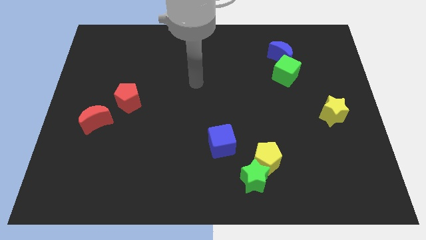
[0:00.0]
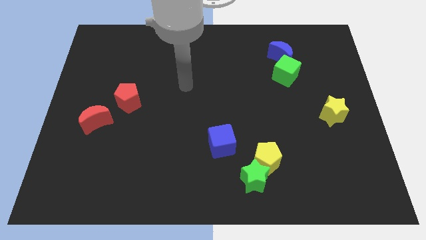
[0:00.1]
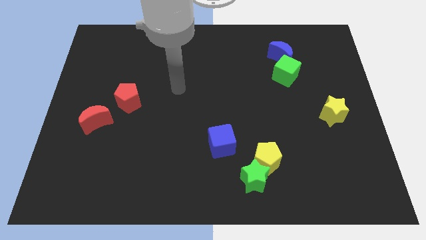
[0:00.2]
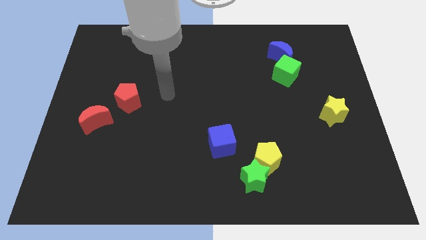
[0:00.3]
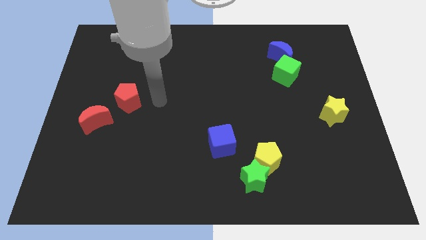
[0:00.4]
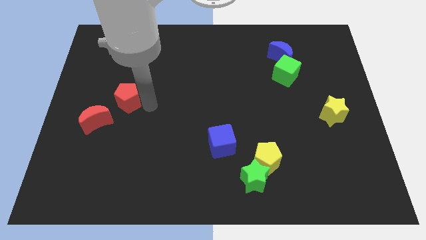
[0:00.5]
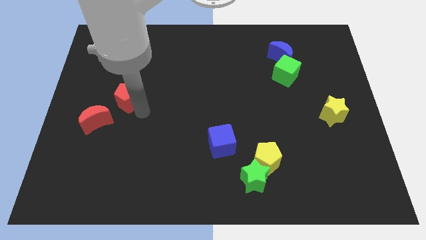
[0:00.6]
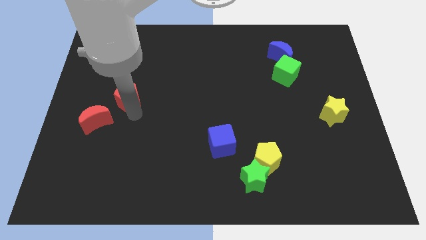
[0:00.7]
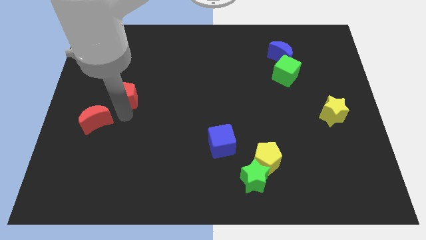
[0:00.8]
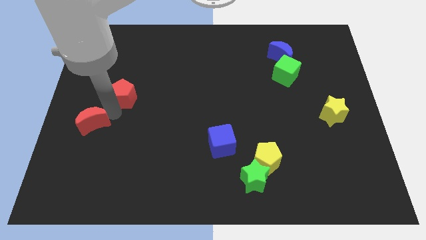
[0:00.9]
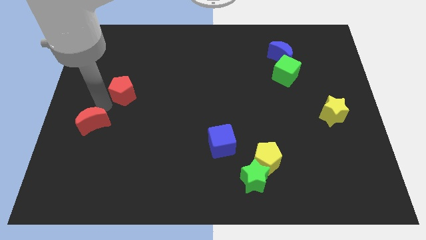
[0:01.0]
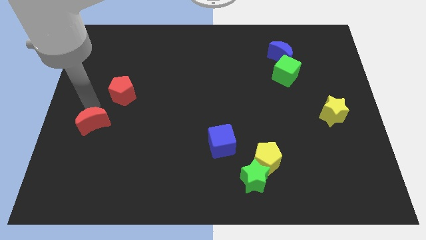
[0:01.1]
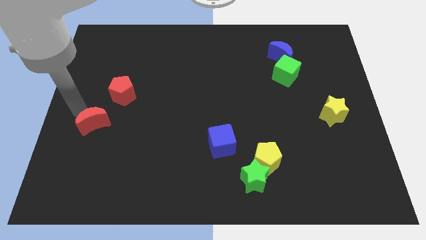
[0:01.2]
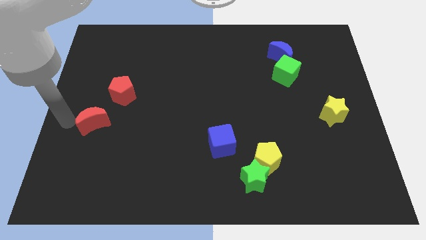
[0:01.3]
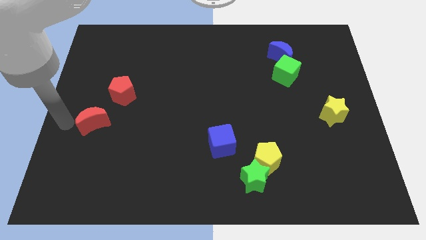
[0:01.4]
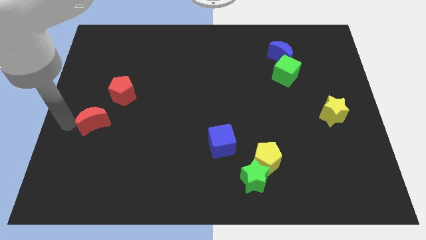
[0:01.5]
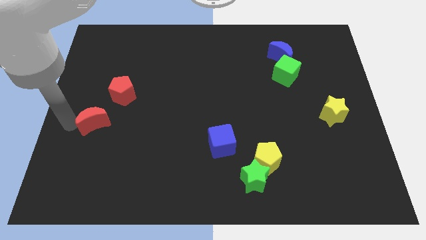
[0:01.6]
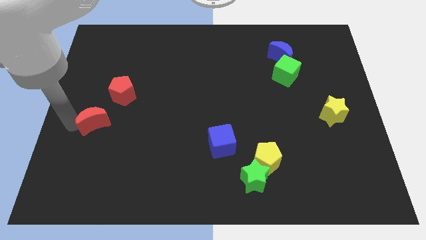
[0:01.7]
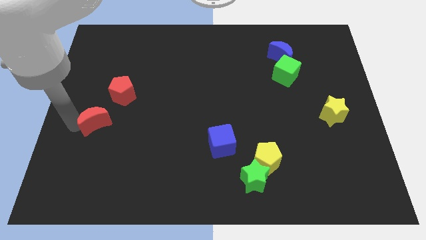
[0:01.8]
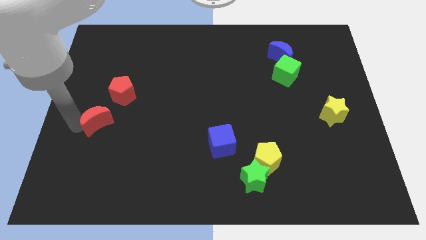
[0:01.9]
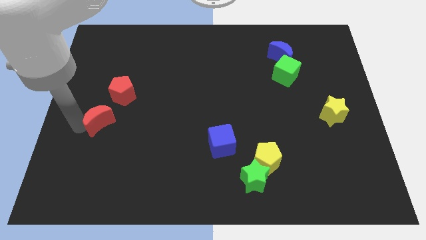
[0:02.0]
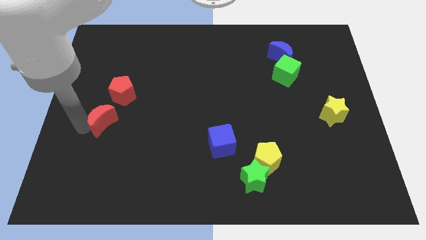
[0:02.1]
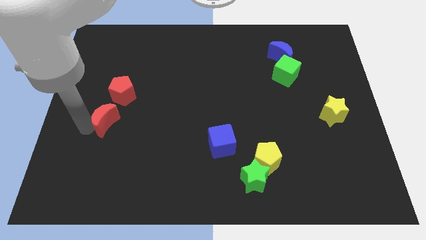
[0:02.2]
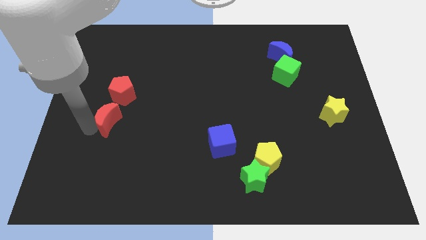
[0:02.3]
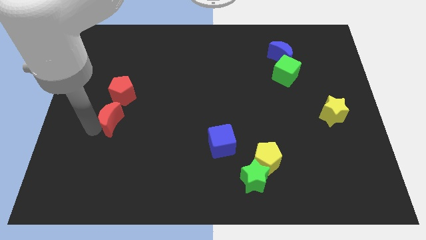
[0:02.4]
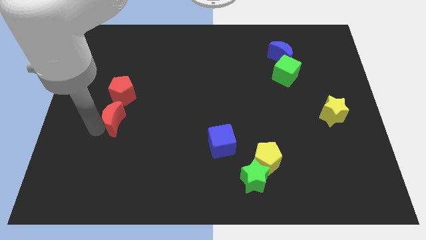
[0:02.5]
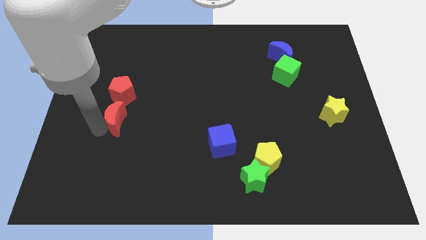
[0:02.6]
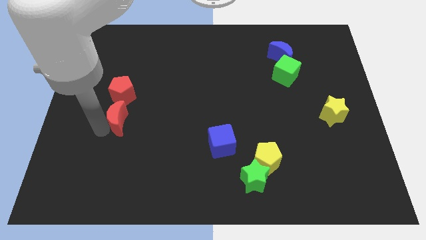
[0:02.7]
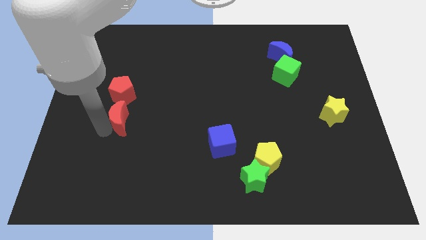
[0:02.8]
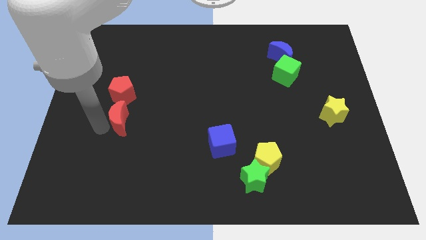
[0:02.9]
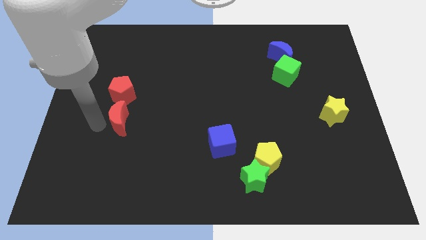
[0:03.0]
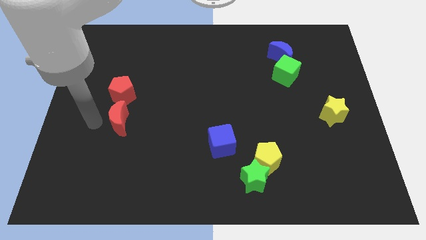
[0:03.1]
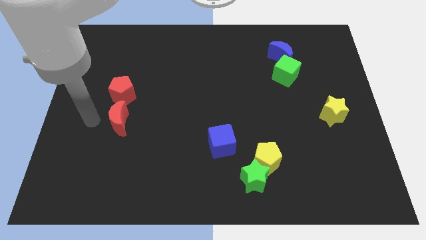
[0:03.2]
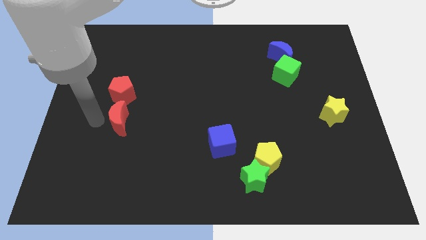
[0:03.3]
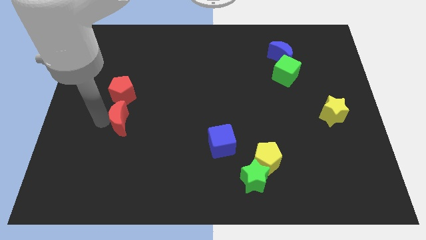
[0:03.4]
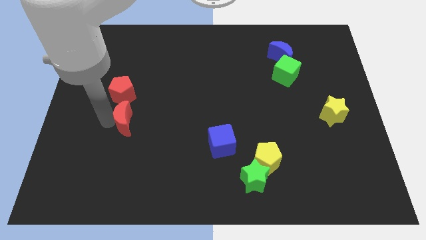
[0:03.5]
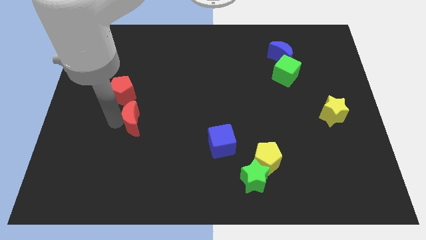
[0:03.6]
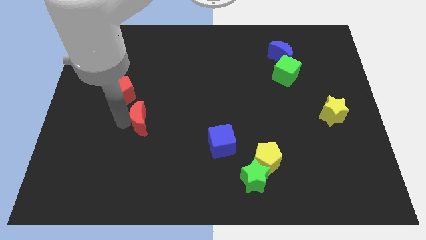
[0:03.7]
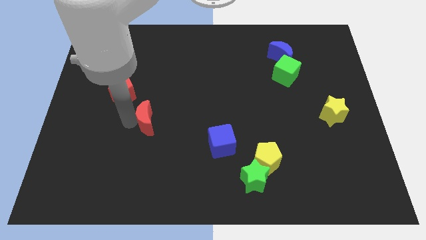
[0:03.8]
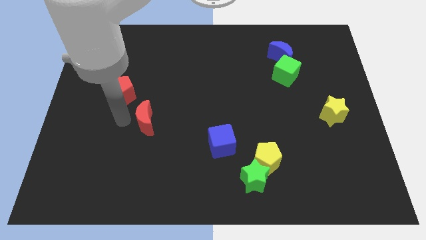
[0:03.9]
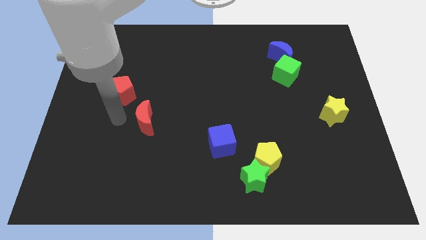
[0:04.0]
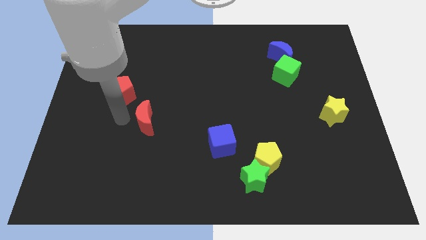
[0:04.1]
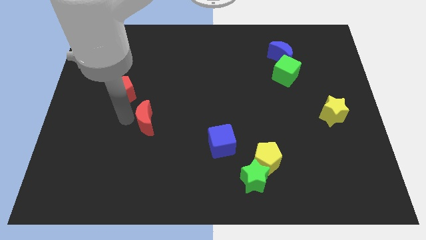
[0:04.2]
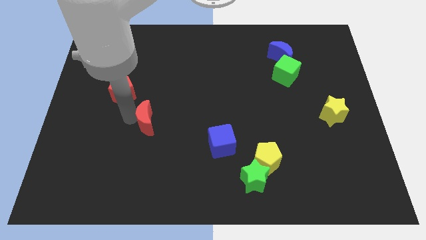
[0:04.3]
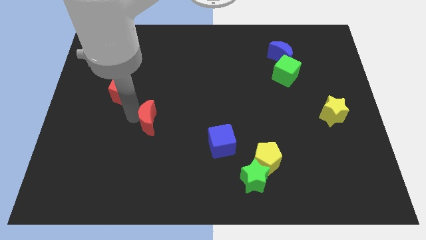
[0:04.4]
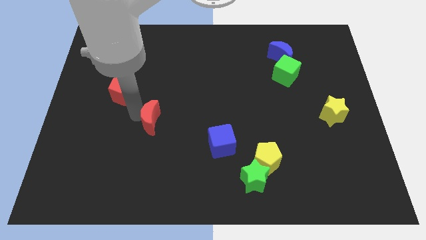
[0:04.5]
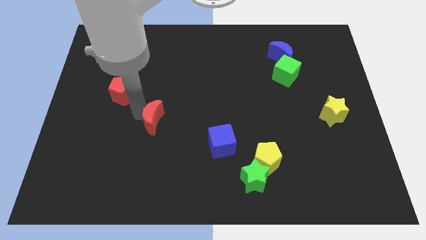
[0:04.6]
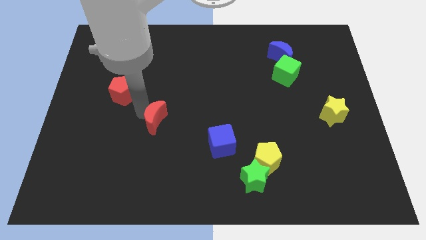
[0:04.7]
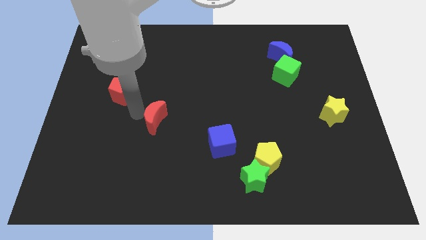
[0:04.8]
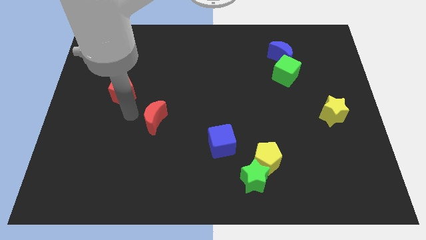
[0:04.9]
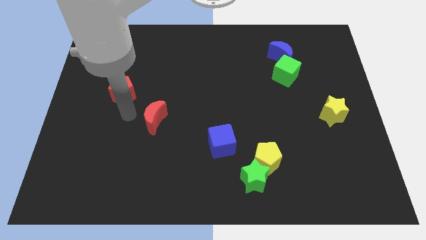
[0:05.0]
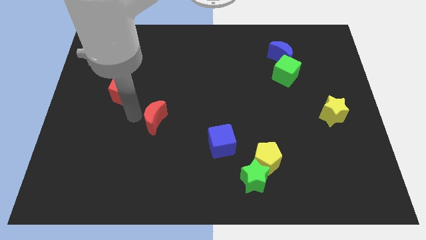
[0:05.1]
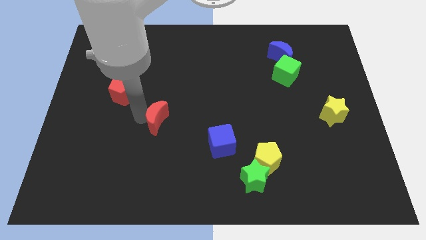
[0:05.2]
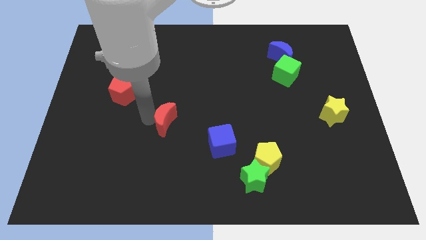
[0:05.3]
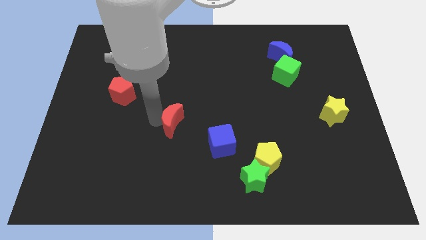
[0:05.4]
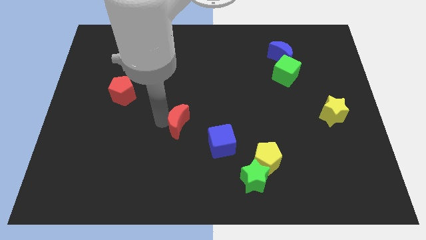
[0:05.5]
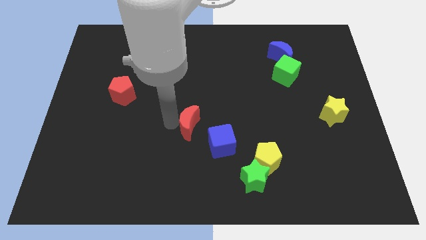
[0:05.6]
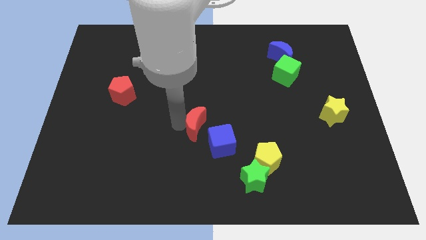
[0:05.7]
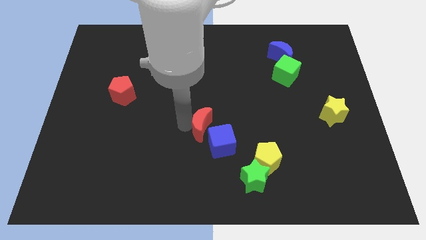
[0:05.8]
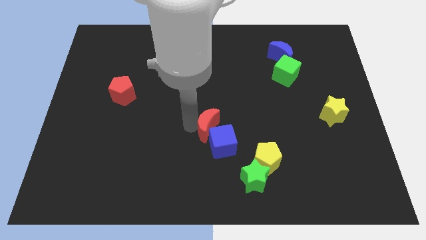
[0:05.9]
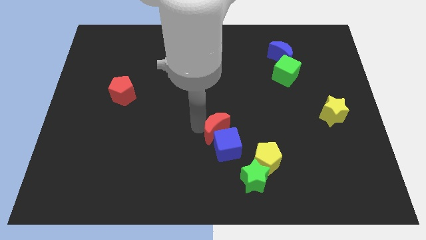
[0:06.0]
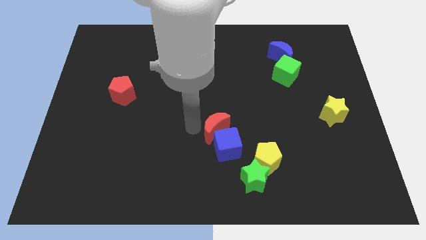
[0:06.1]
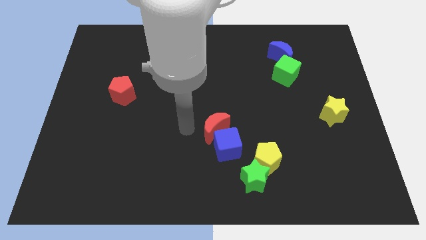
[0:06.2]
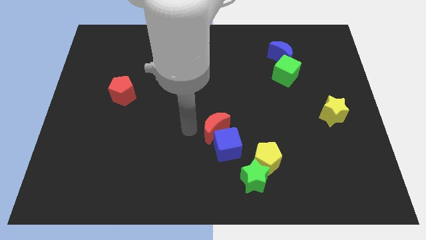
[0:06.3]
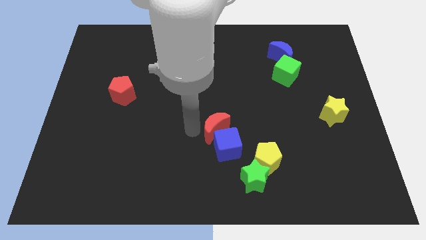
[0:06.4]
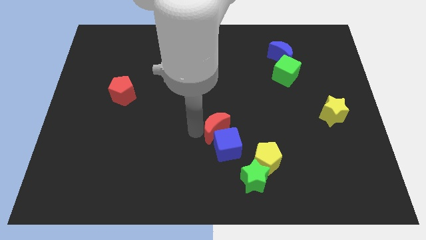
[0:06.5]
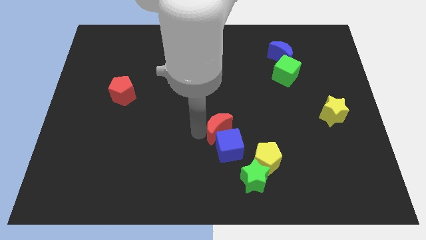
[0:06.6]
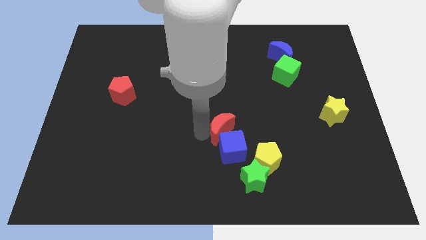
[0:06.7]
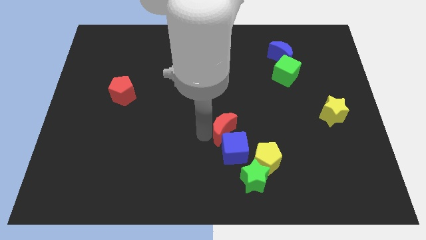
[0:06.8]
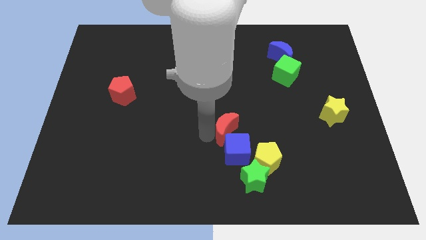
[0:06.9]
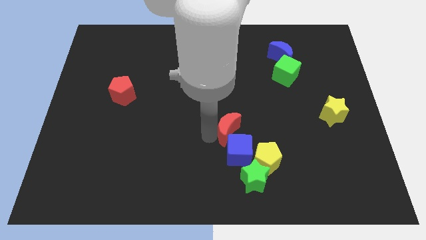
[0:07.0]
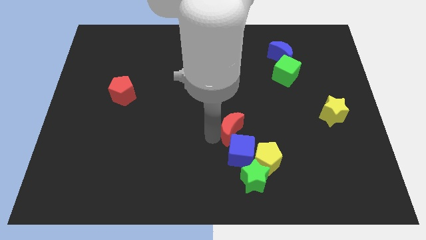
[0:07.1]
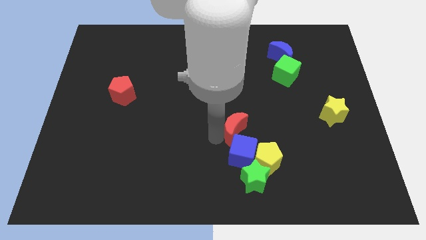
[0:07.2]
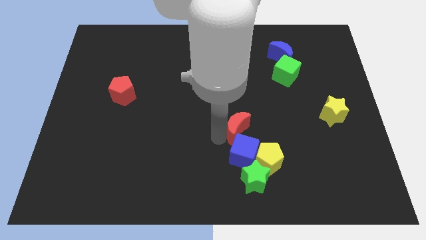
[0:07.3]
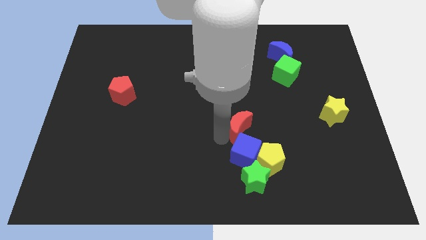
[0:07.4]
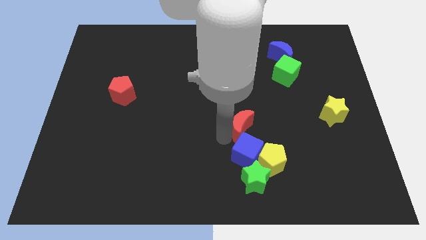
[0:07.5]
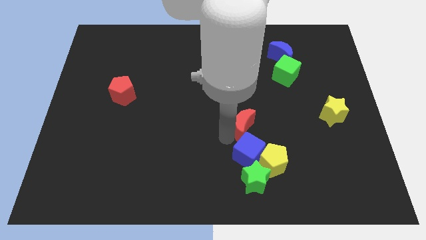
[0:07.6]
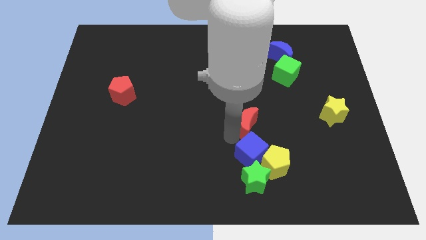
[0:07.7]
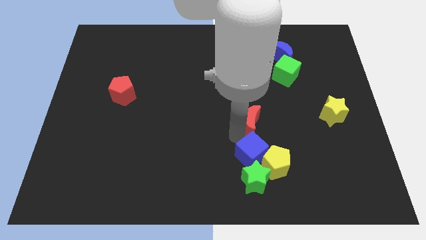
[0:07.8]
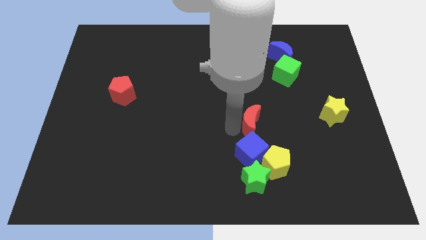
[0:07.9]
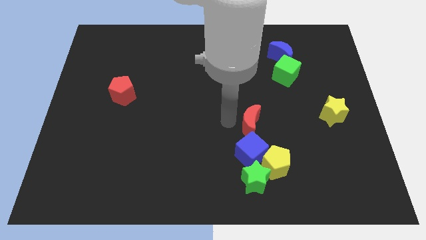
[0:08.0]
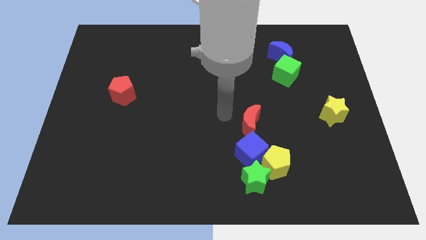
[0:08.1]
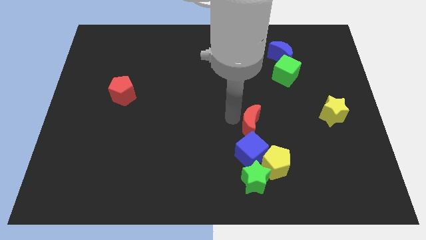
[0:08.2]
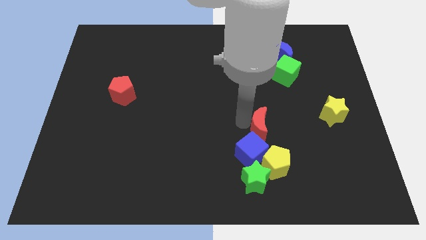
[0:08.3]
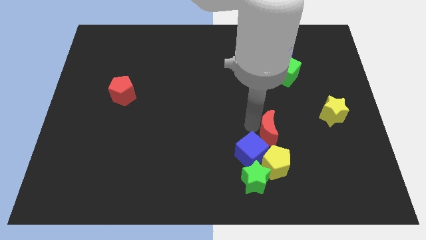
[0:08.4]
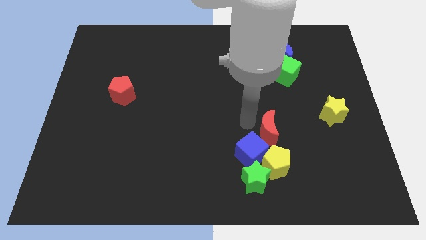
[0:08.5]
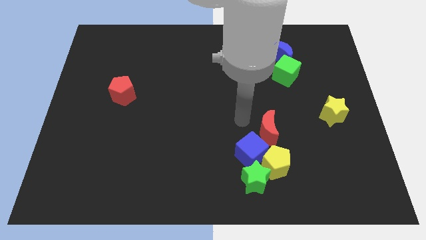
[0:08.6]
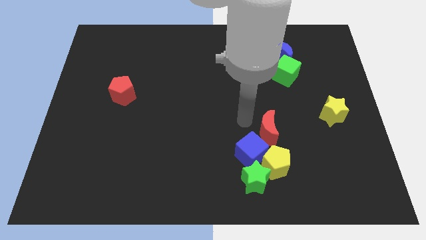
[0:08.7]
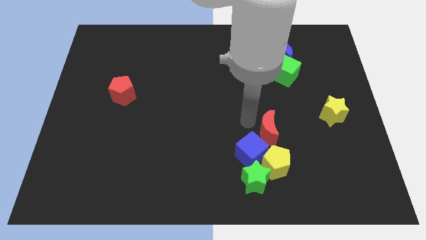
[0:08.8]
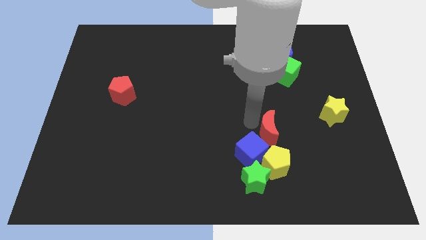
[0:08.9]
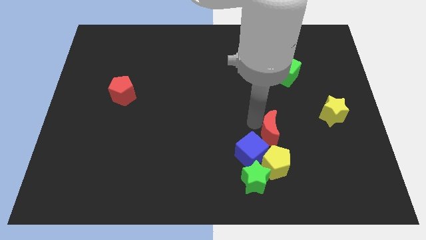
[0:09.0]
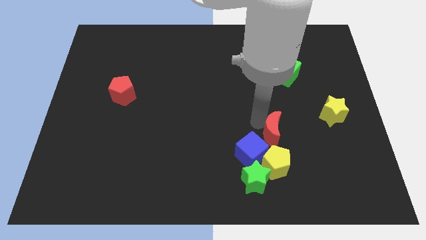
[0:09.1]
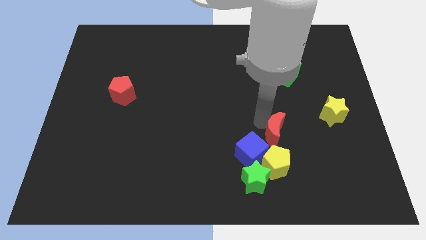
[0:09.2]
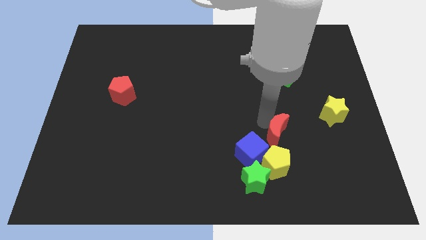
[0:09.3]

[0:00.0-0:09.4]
put the red moon to the top right side of the yellow pentagon
